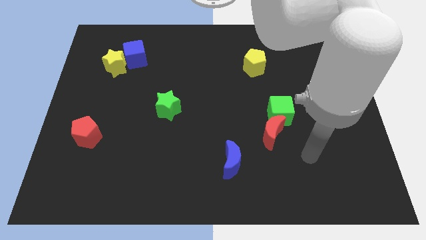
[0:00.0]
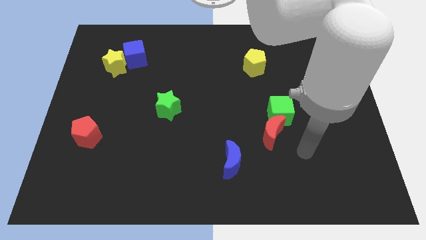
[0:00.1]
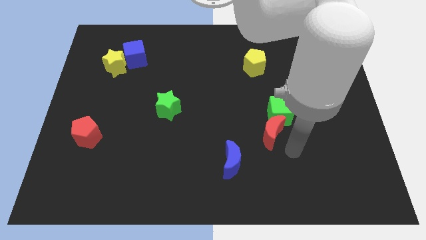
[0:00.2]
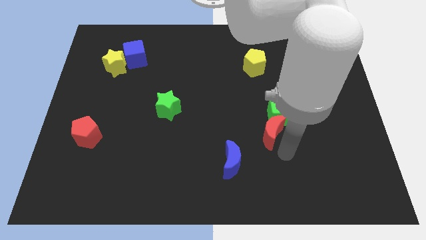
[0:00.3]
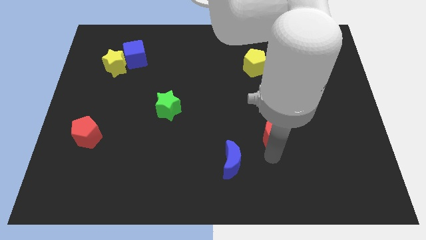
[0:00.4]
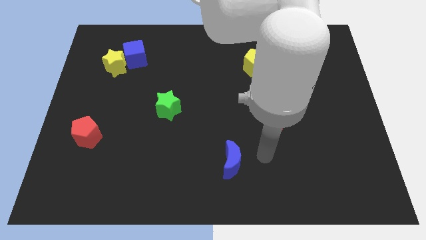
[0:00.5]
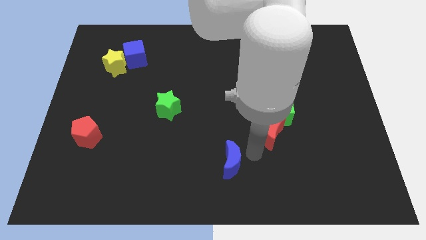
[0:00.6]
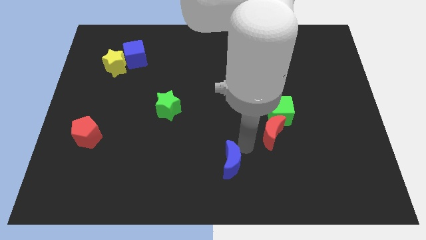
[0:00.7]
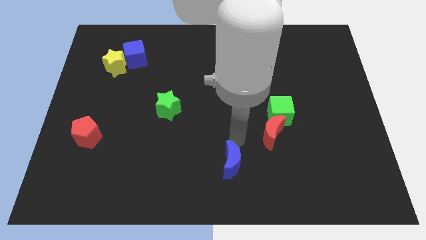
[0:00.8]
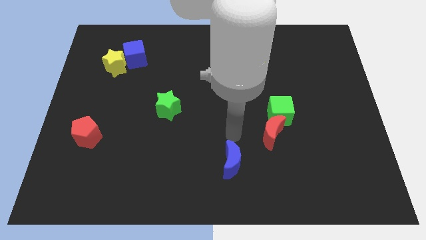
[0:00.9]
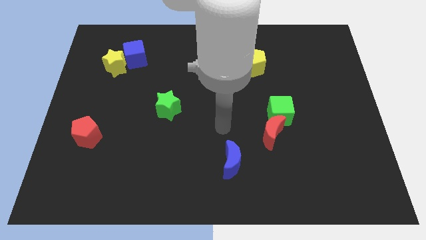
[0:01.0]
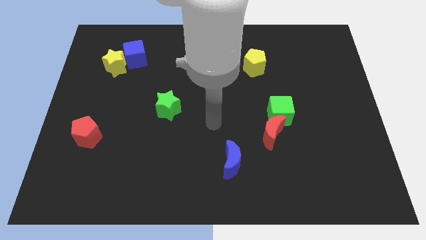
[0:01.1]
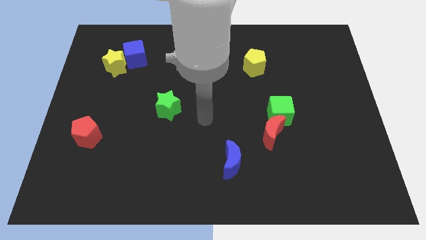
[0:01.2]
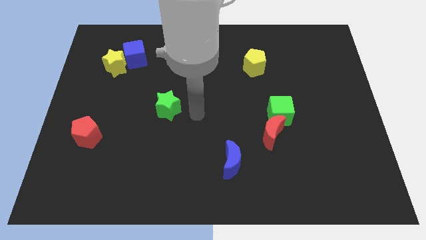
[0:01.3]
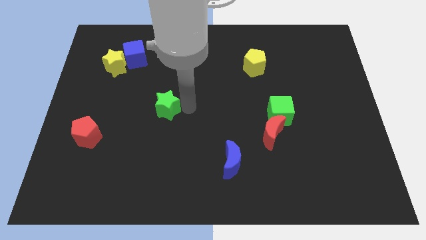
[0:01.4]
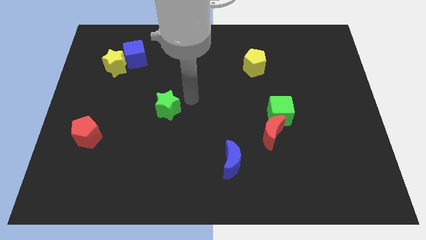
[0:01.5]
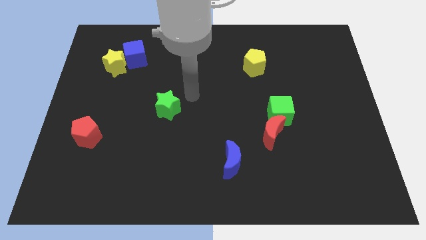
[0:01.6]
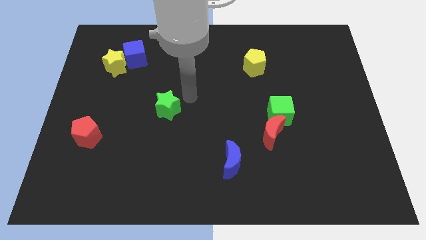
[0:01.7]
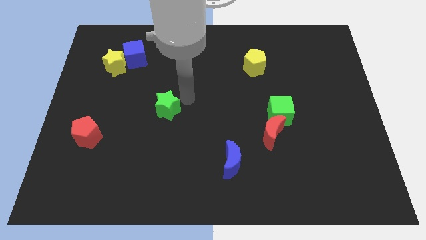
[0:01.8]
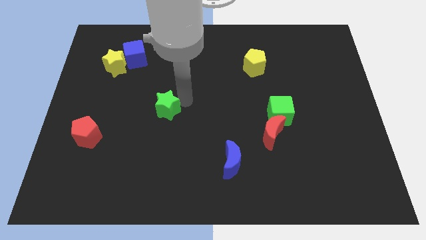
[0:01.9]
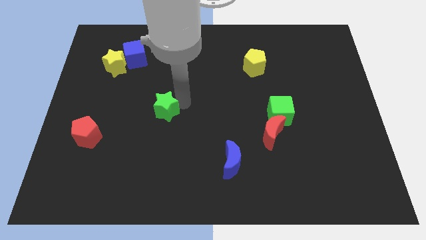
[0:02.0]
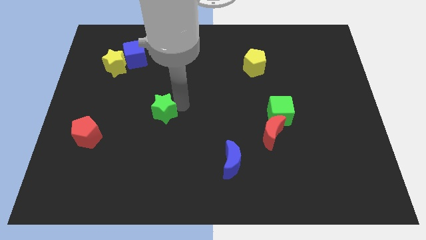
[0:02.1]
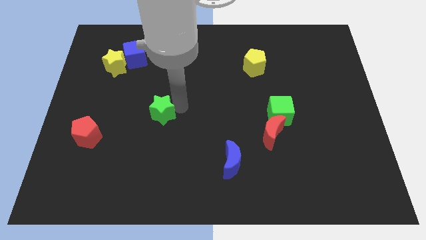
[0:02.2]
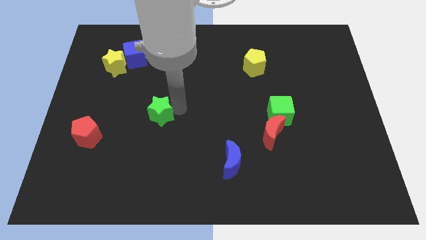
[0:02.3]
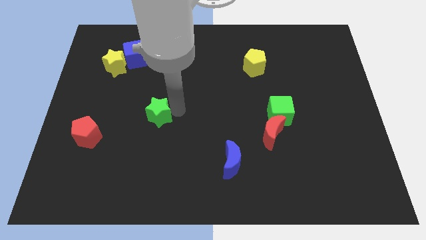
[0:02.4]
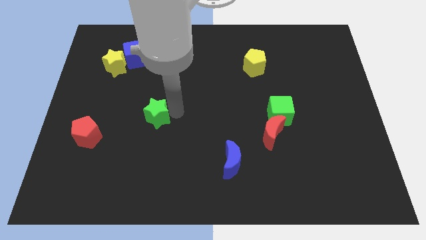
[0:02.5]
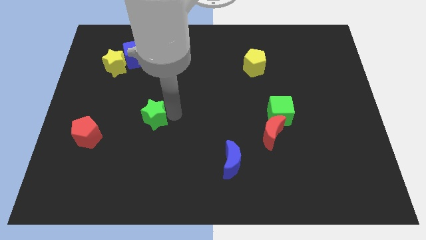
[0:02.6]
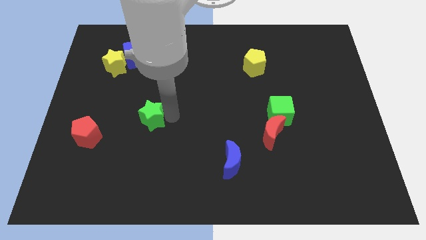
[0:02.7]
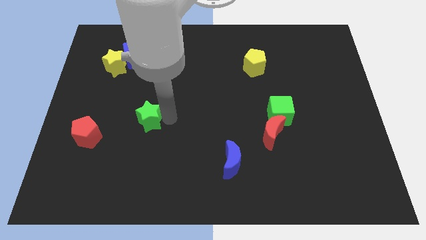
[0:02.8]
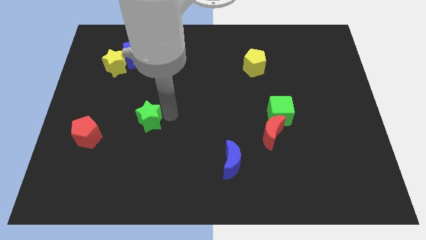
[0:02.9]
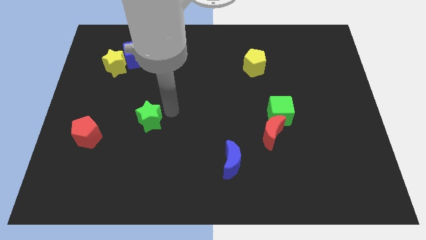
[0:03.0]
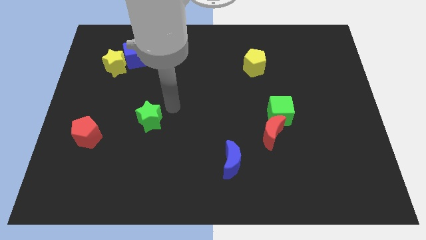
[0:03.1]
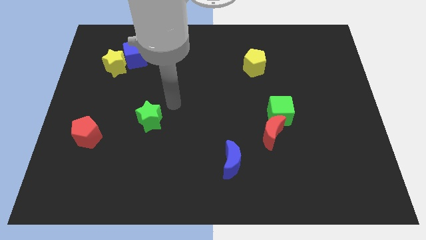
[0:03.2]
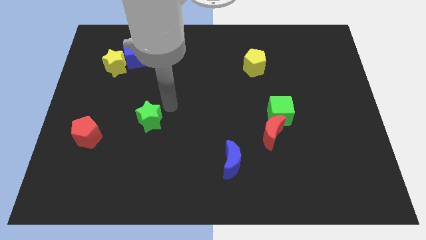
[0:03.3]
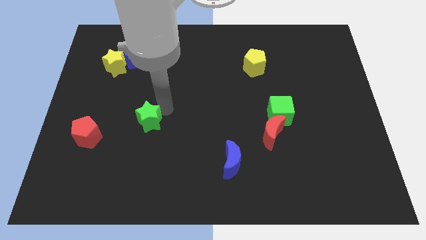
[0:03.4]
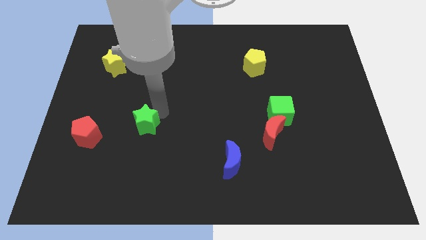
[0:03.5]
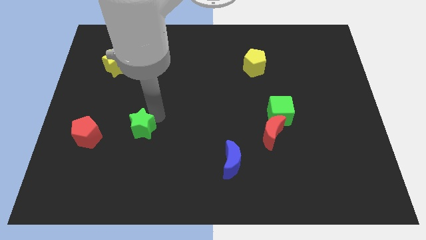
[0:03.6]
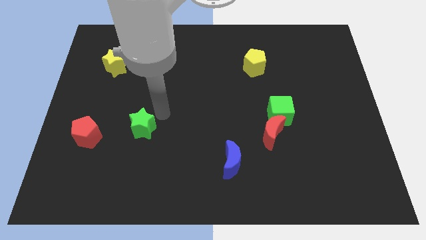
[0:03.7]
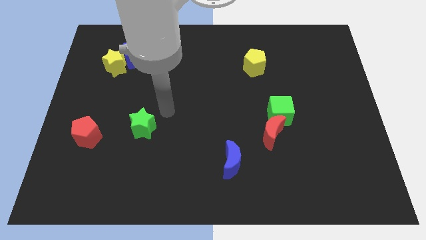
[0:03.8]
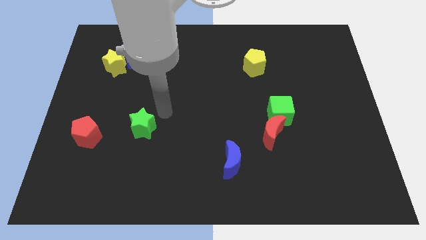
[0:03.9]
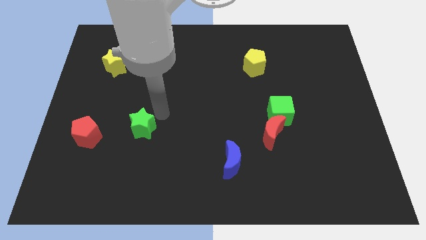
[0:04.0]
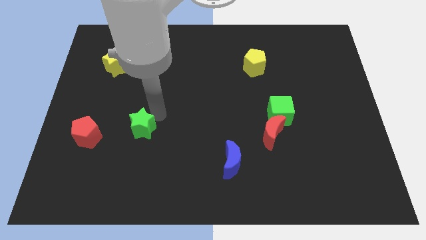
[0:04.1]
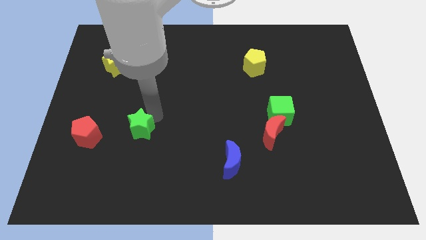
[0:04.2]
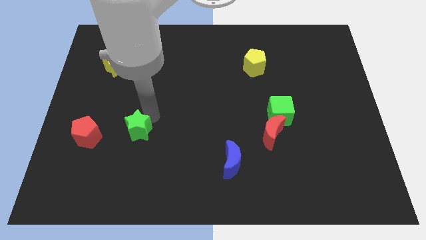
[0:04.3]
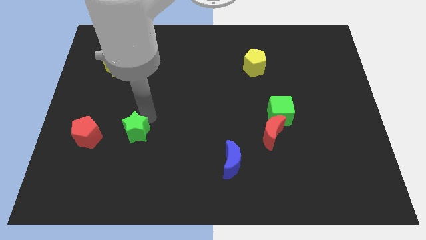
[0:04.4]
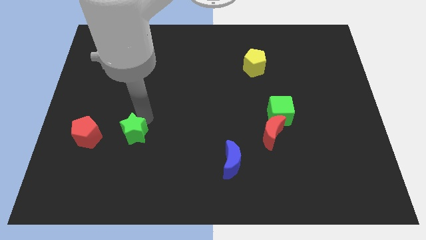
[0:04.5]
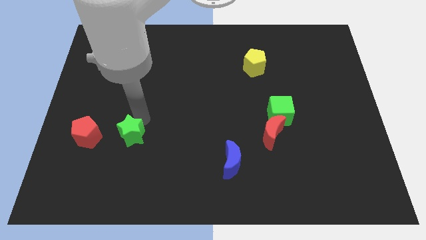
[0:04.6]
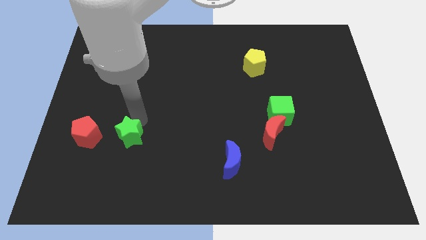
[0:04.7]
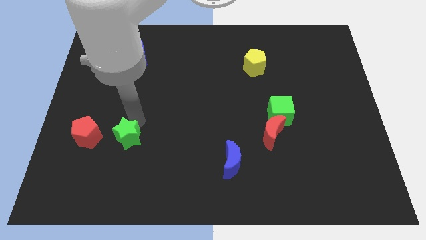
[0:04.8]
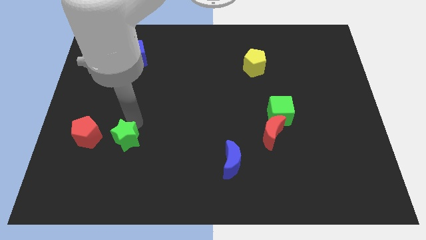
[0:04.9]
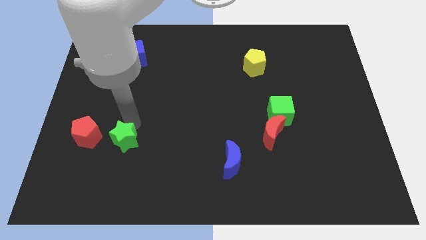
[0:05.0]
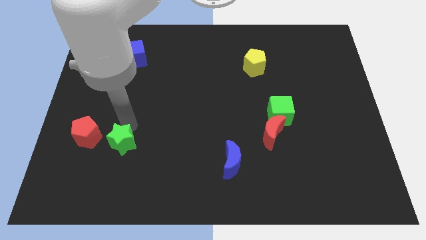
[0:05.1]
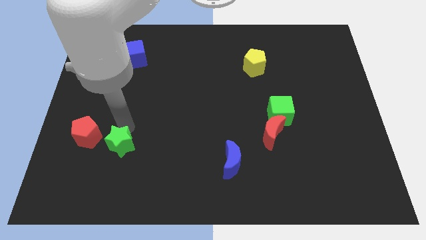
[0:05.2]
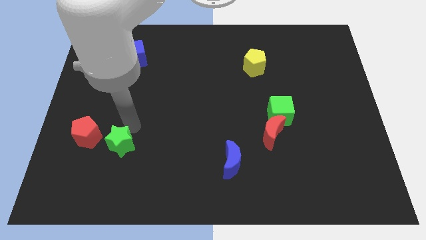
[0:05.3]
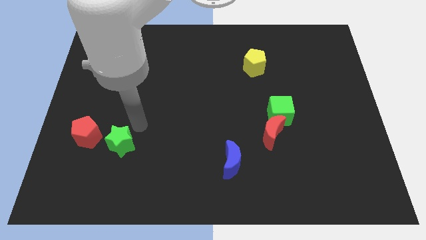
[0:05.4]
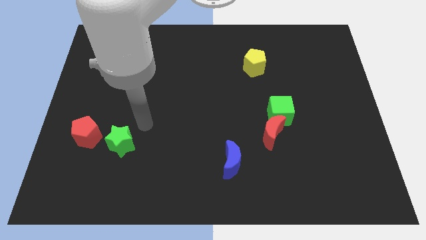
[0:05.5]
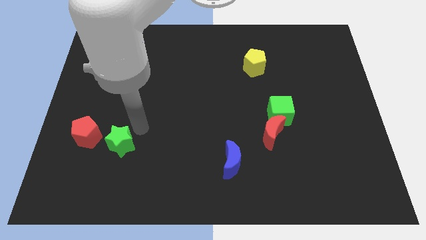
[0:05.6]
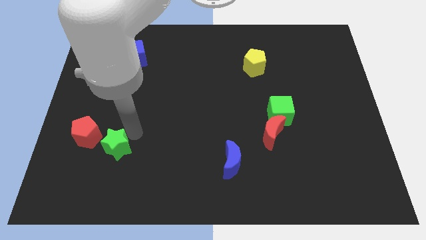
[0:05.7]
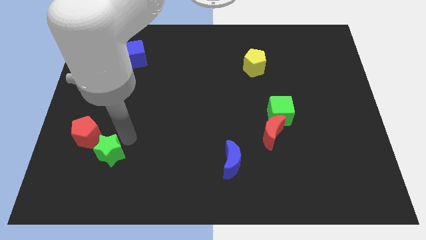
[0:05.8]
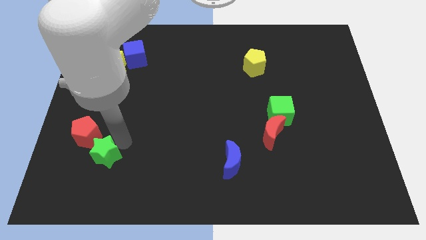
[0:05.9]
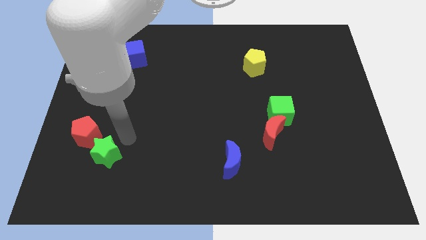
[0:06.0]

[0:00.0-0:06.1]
put the green star to the bottom of the red pentagon

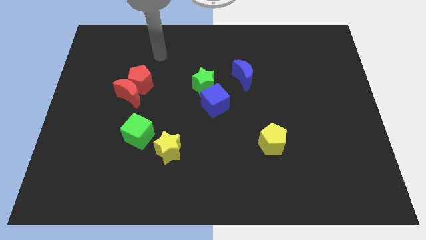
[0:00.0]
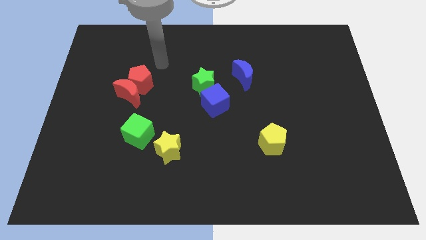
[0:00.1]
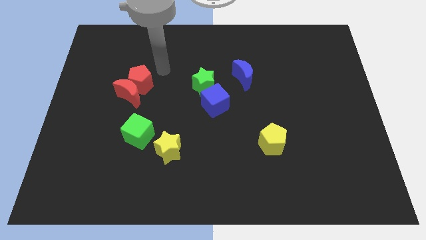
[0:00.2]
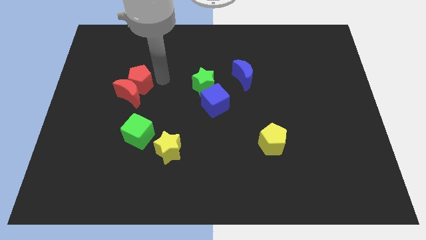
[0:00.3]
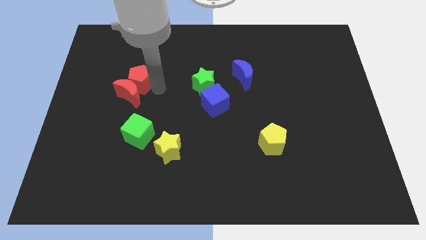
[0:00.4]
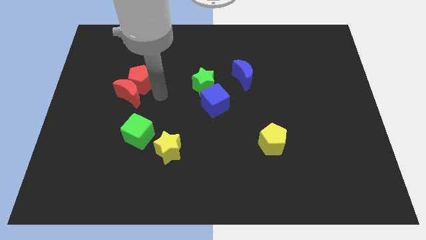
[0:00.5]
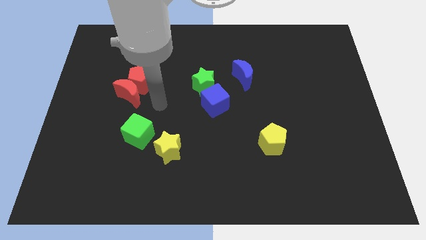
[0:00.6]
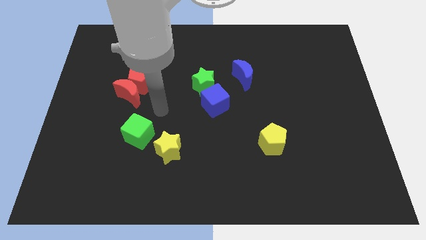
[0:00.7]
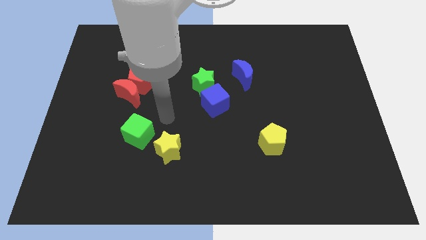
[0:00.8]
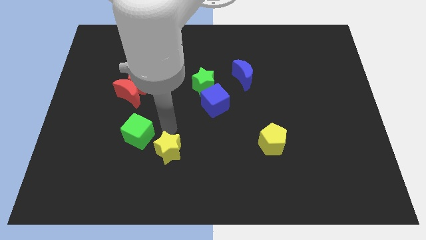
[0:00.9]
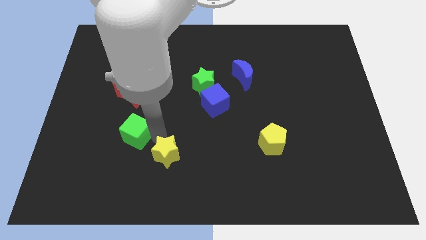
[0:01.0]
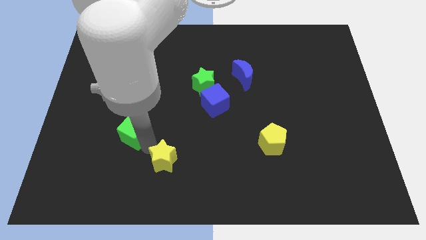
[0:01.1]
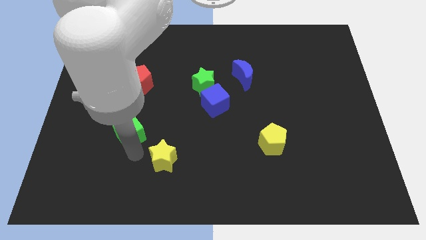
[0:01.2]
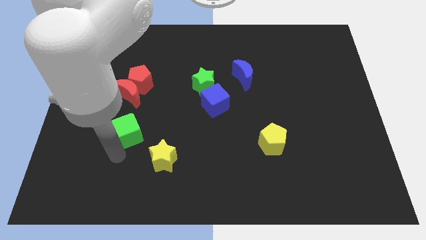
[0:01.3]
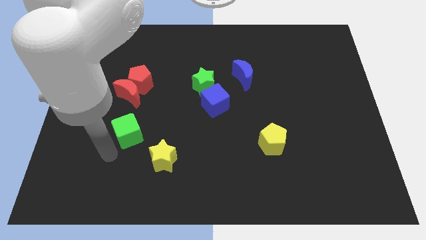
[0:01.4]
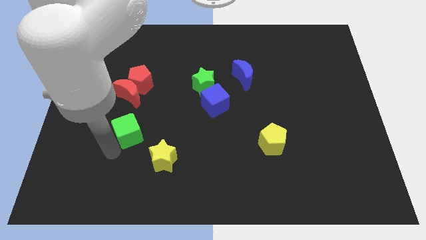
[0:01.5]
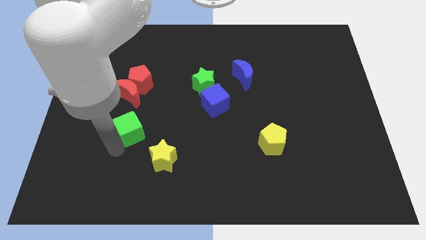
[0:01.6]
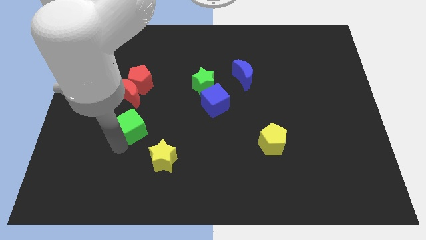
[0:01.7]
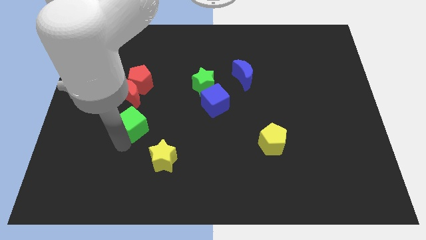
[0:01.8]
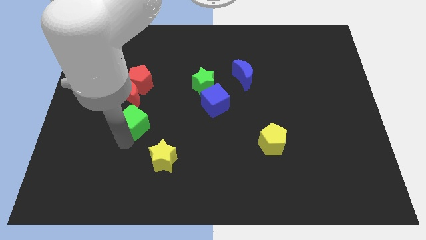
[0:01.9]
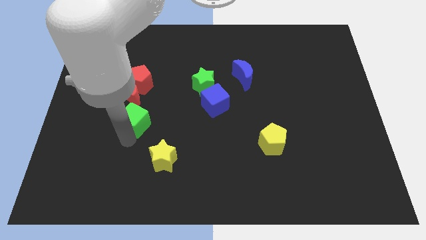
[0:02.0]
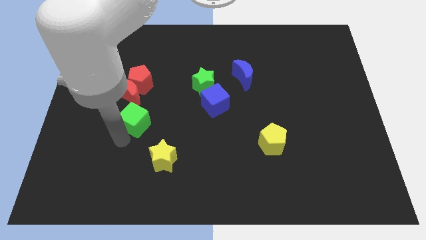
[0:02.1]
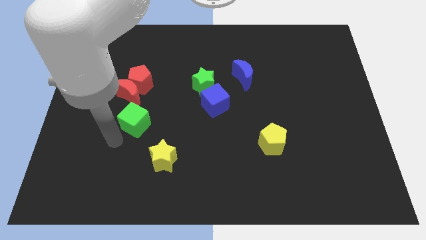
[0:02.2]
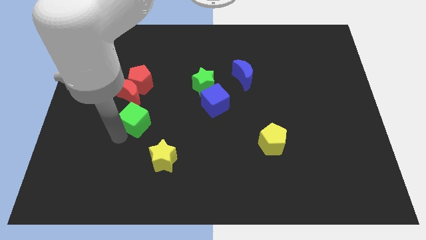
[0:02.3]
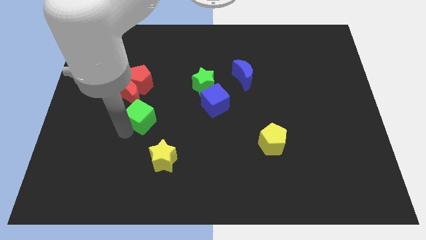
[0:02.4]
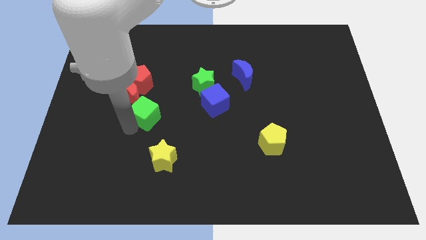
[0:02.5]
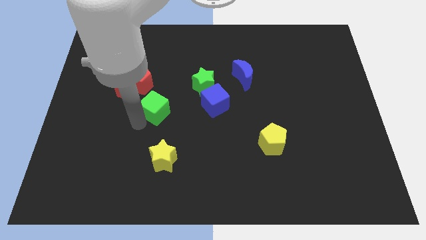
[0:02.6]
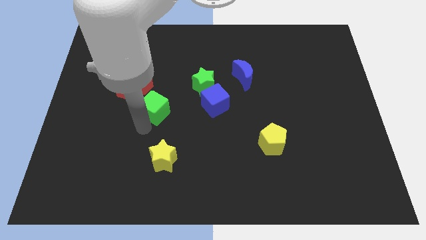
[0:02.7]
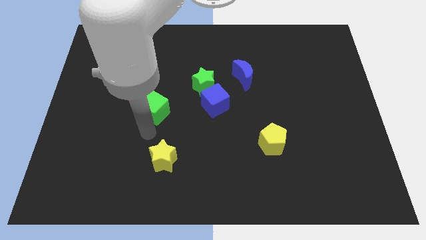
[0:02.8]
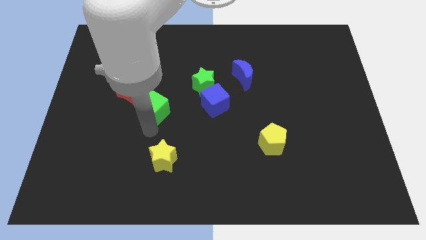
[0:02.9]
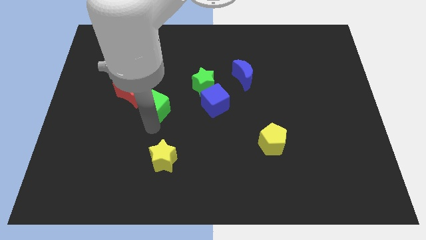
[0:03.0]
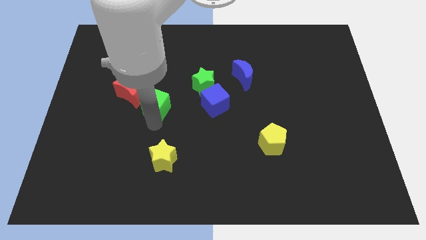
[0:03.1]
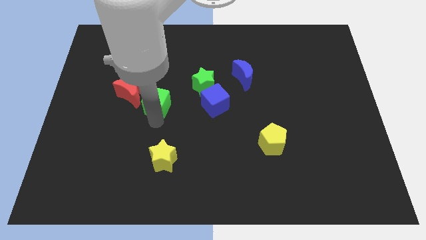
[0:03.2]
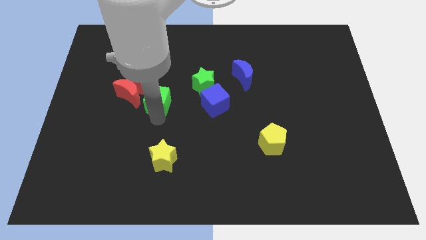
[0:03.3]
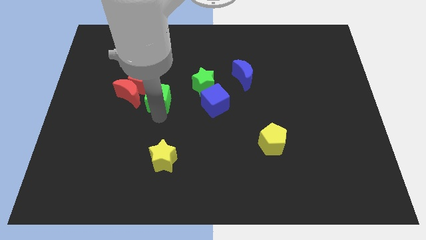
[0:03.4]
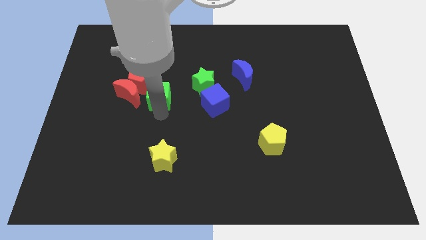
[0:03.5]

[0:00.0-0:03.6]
slide the green cube to the left side of the green star
